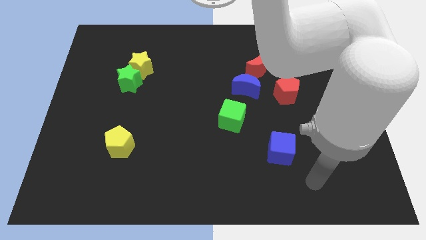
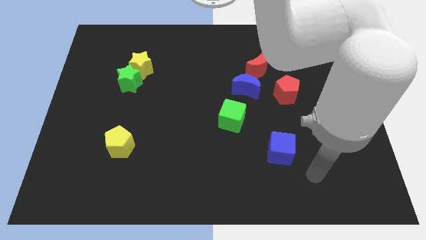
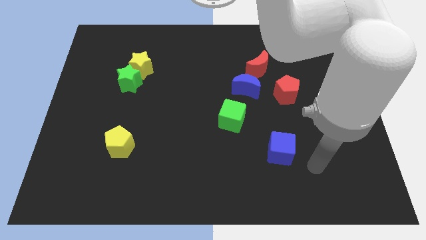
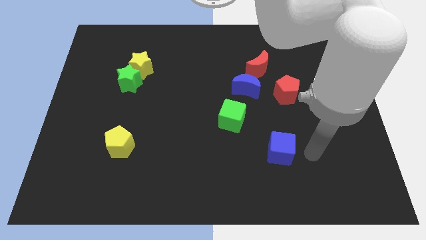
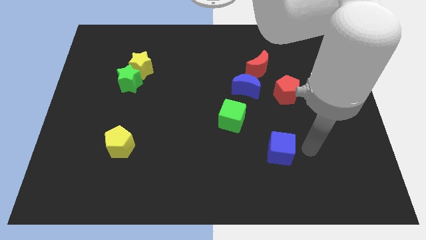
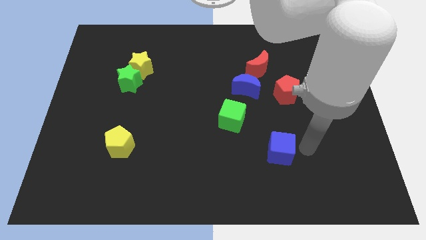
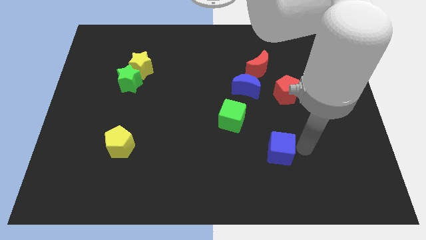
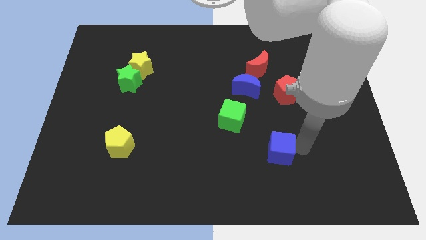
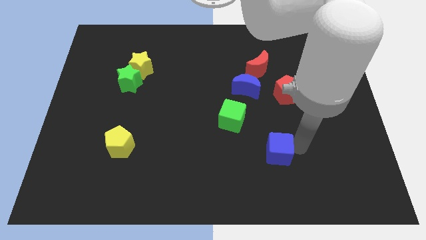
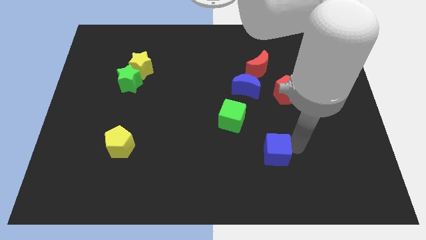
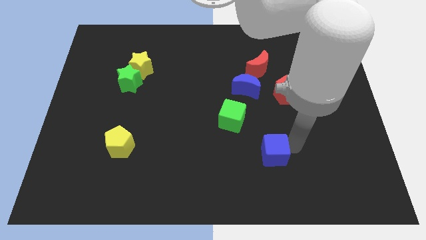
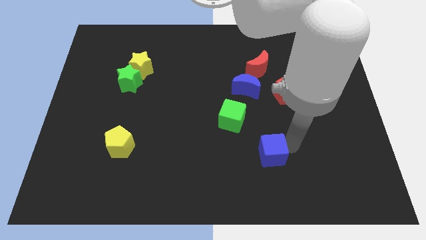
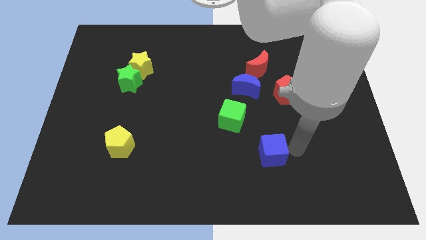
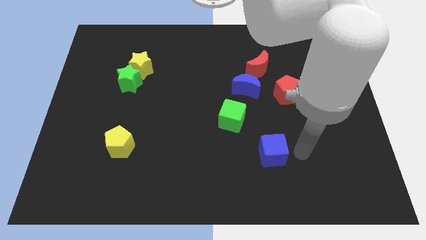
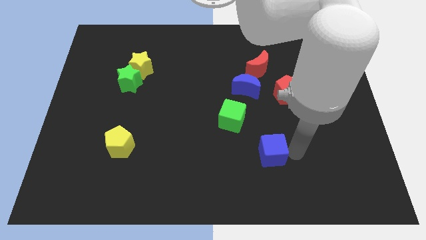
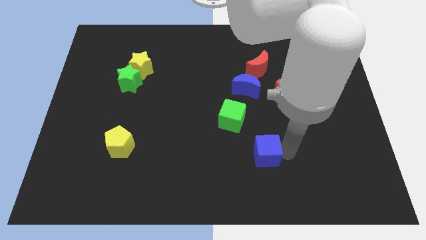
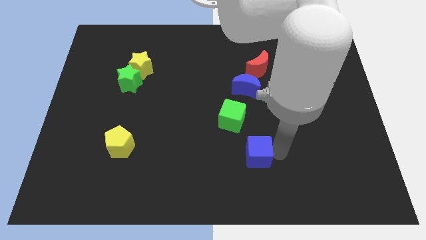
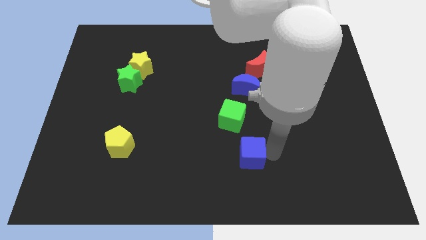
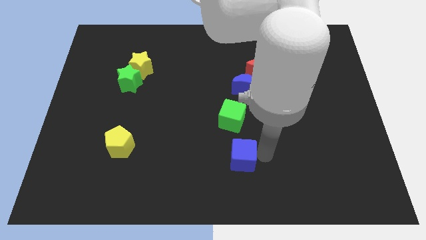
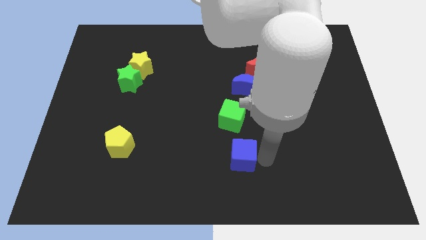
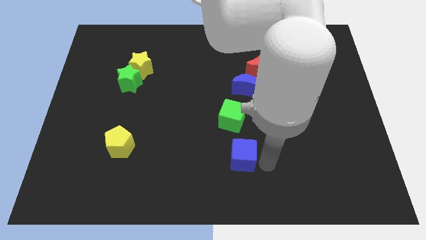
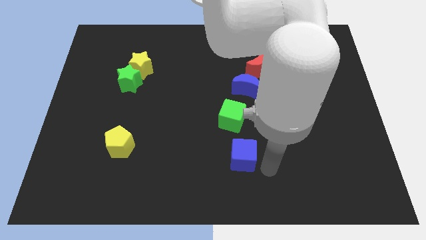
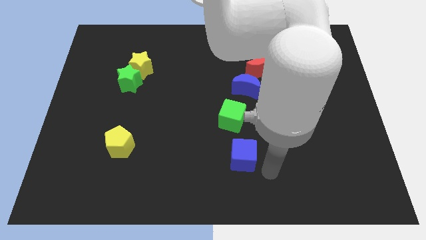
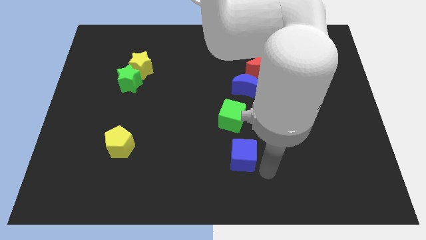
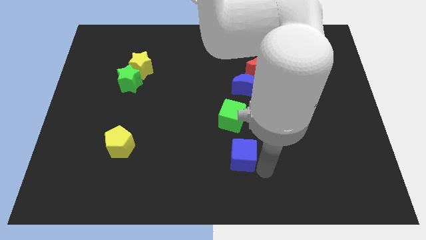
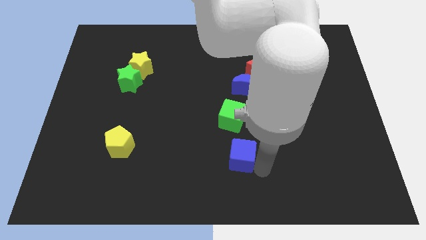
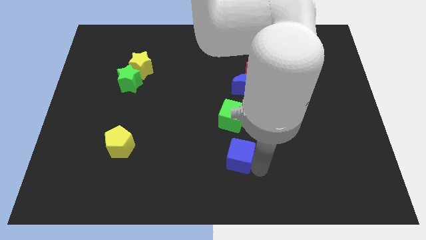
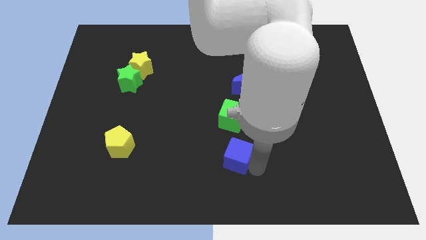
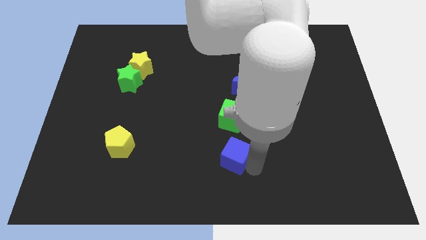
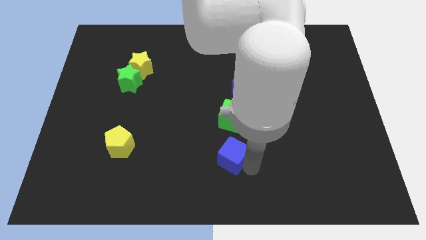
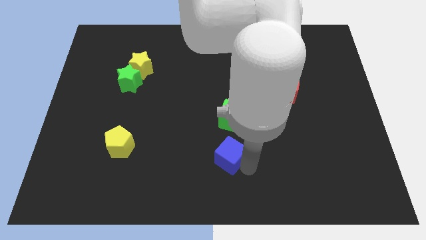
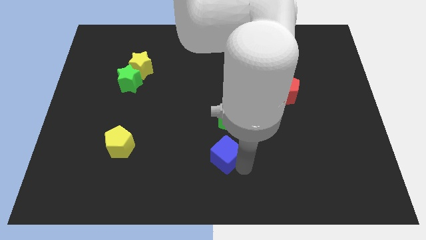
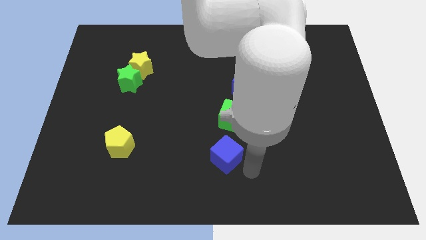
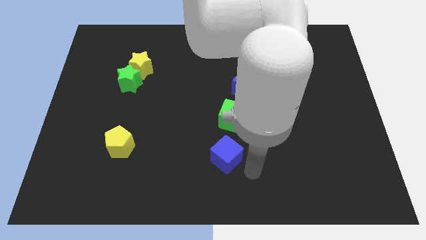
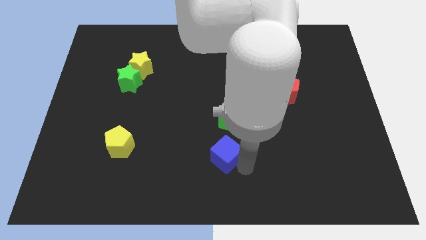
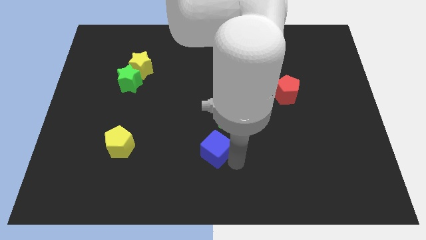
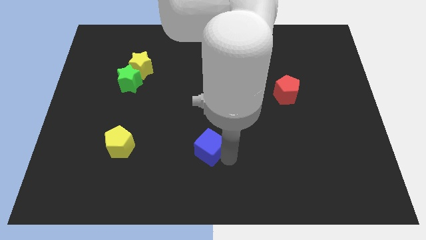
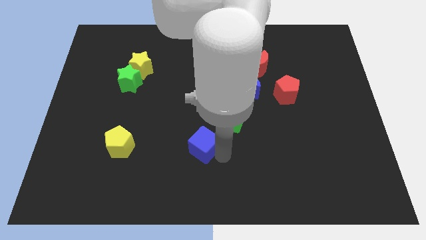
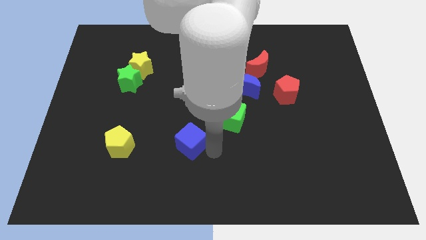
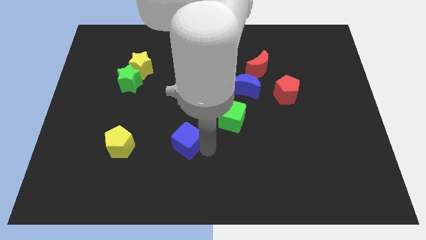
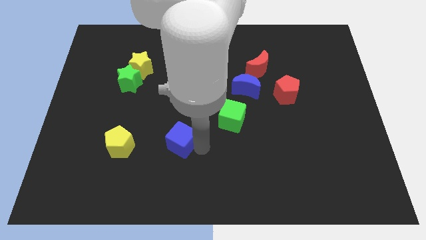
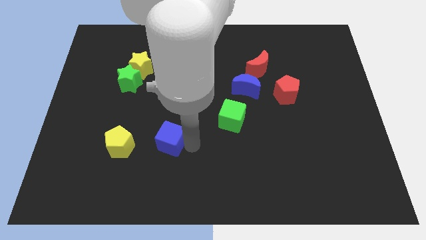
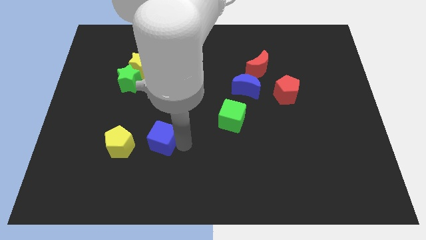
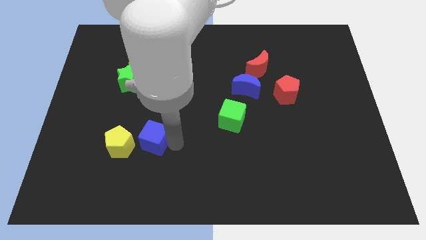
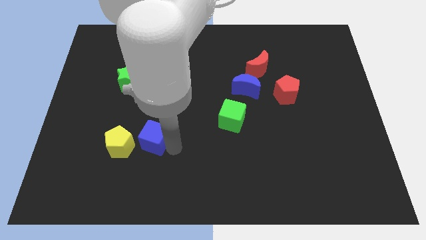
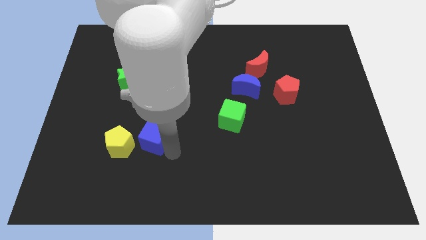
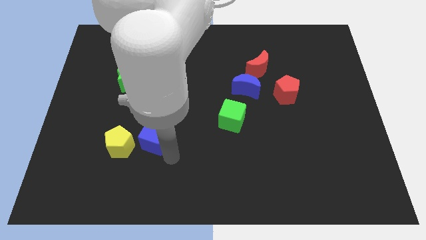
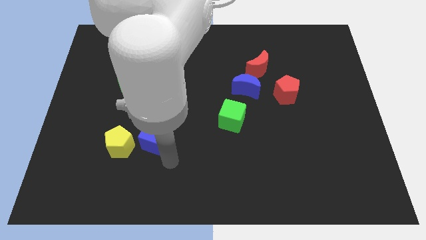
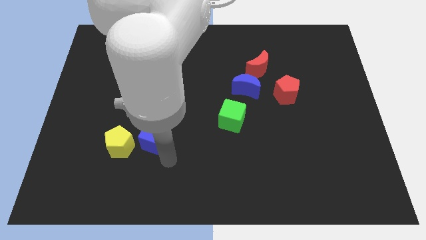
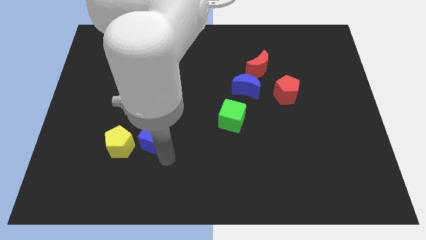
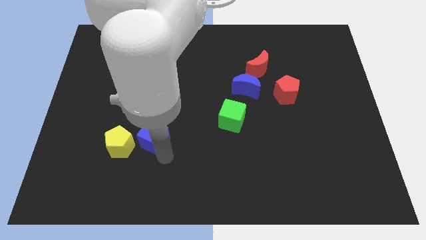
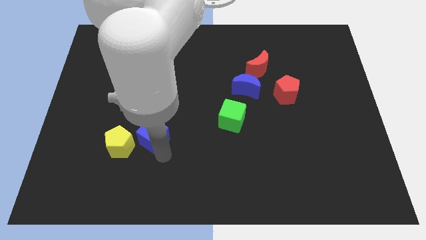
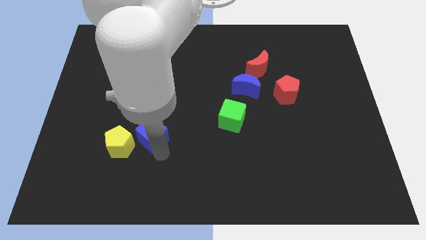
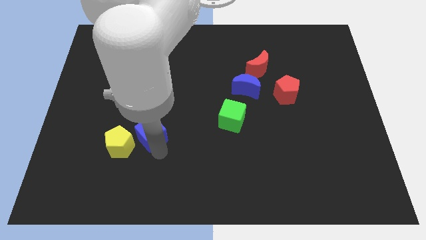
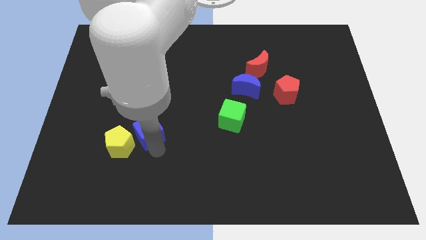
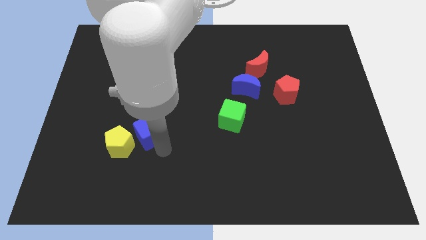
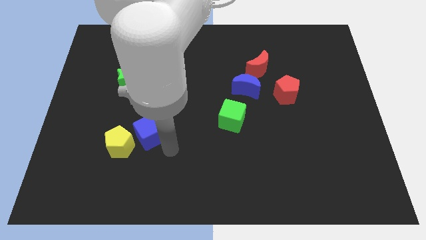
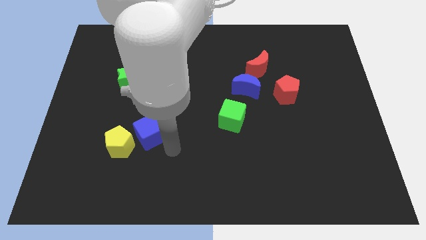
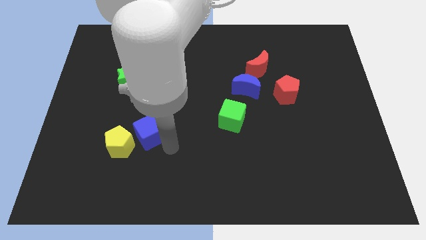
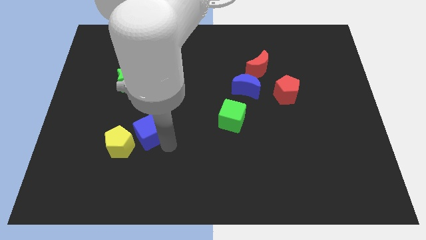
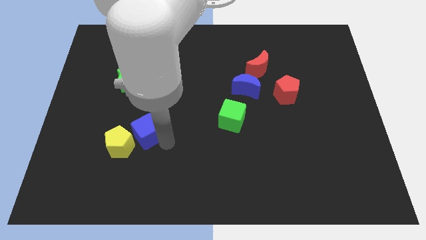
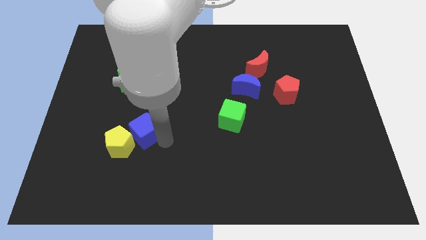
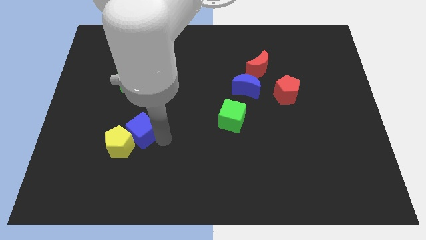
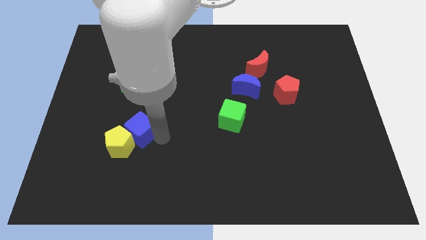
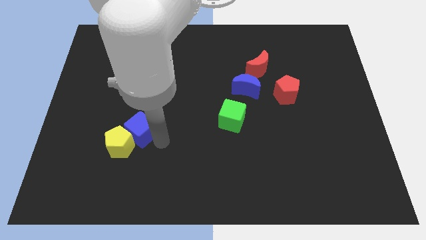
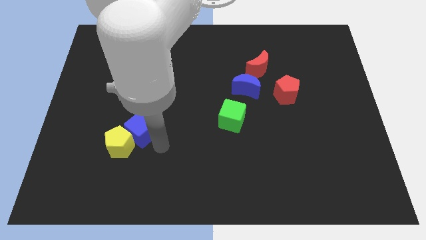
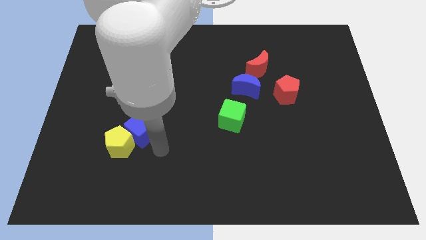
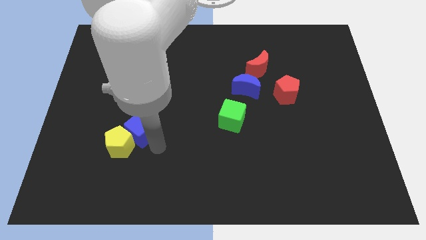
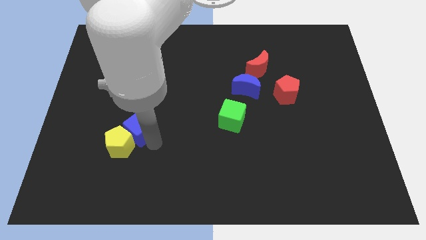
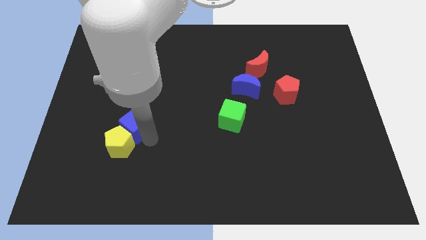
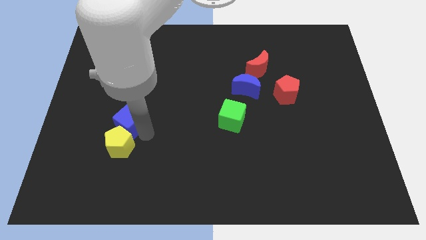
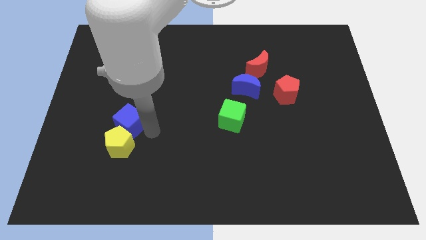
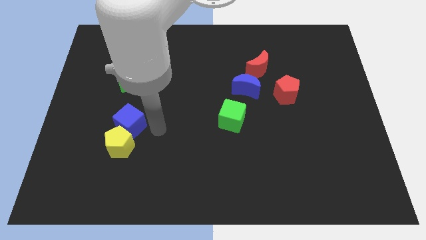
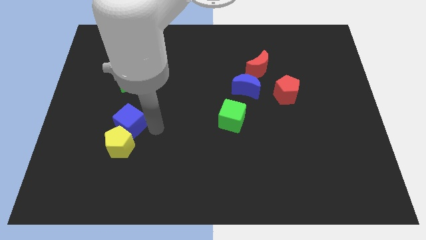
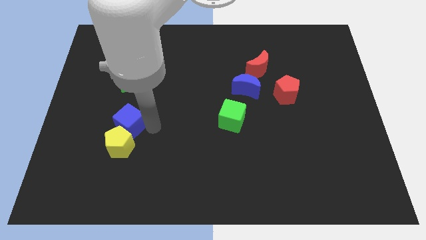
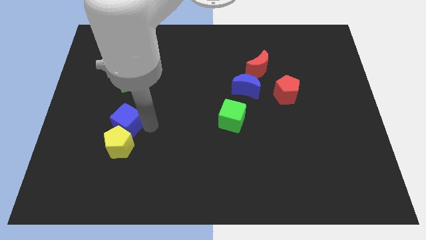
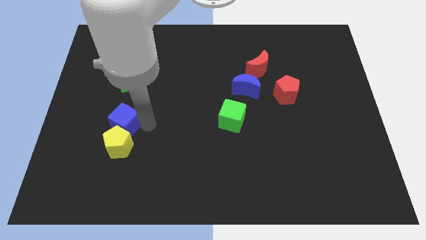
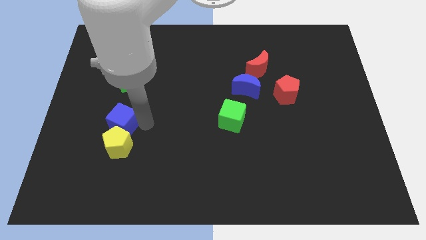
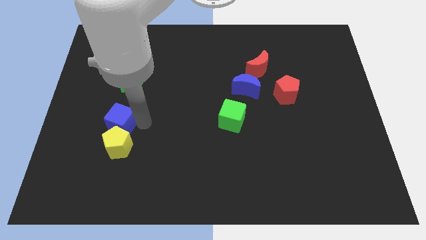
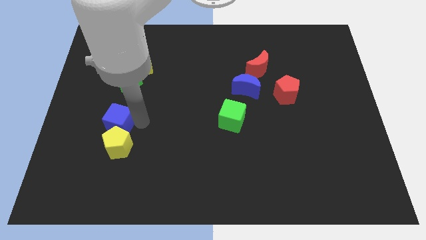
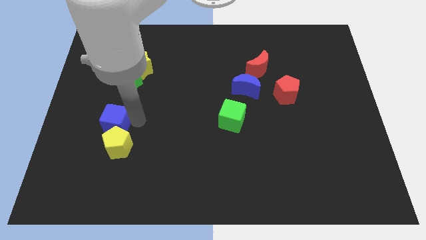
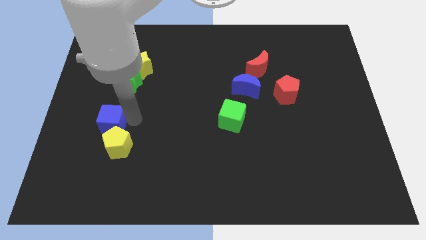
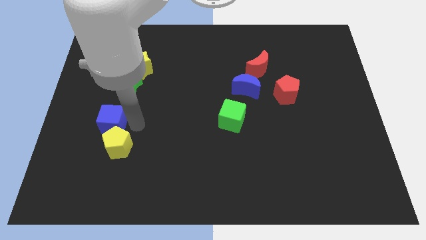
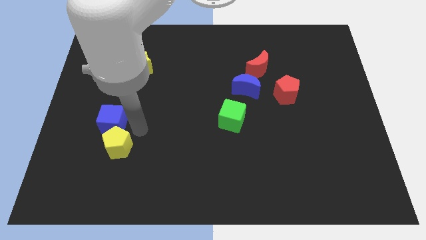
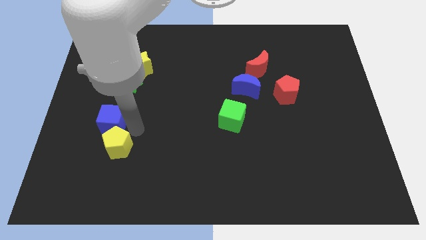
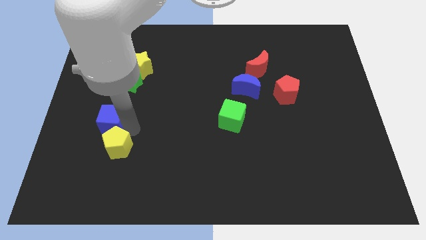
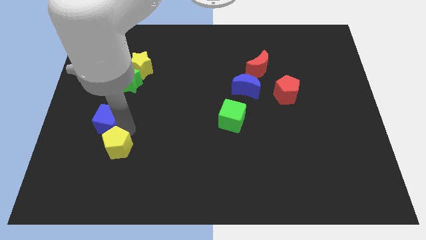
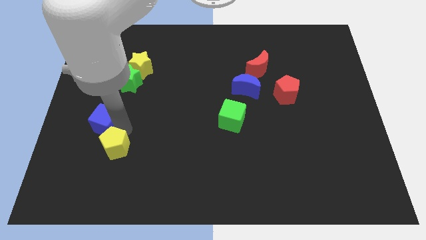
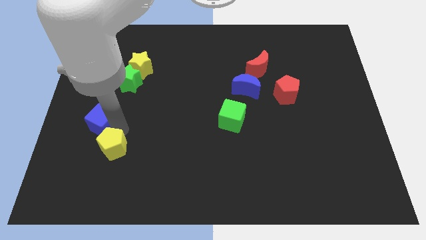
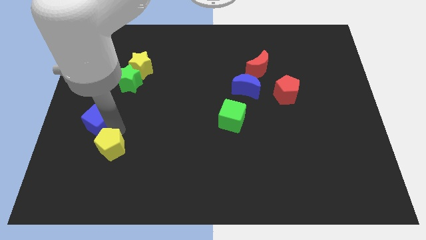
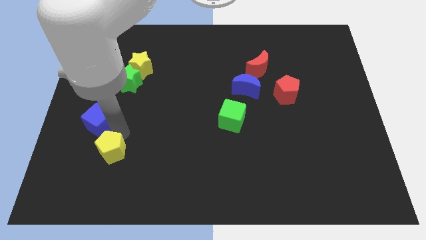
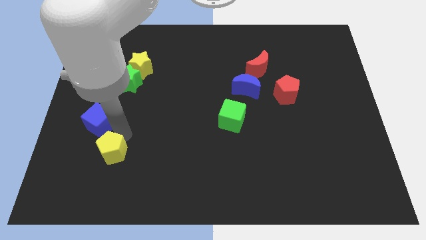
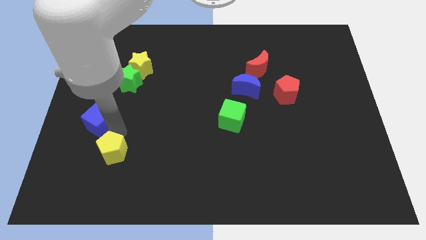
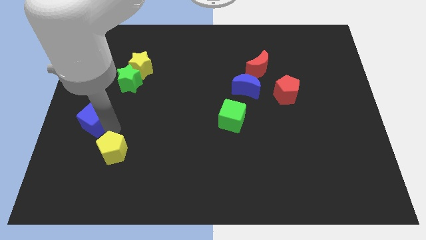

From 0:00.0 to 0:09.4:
put the blue cube to the left side of the board
